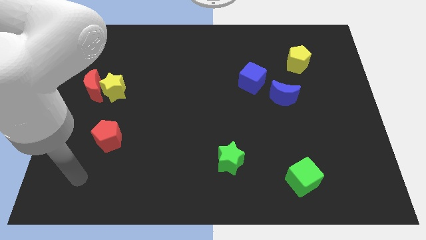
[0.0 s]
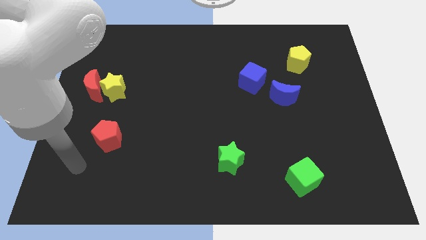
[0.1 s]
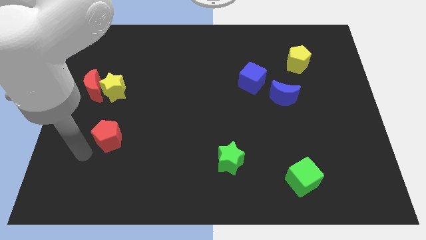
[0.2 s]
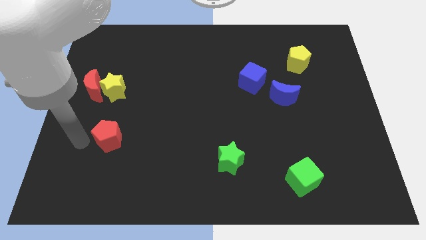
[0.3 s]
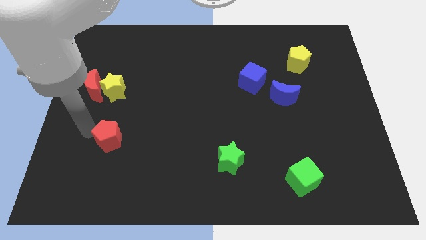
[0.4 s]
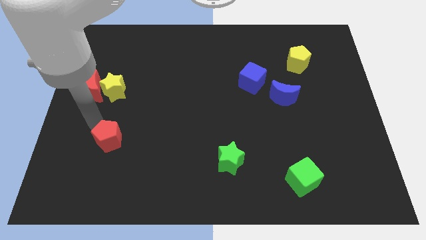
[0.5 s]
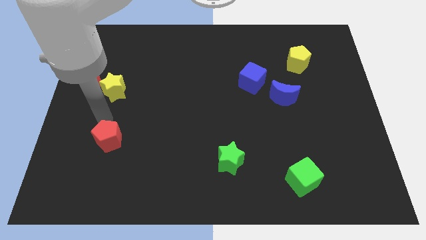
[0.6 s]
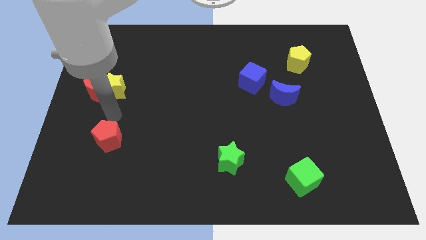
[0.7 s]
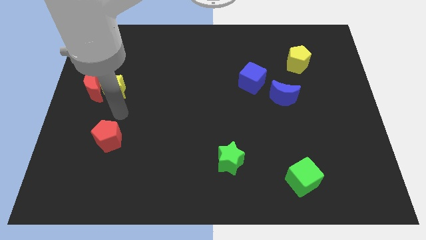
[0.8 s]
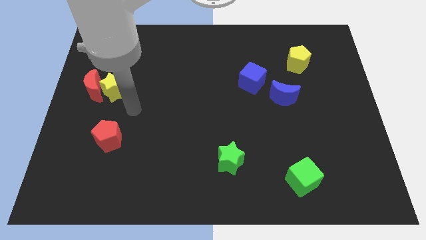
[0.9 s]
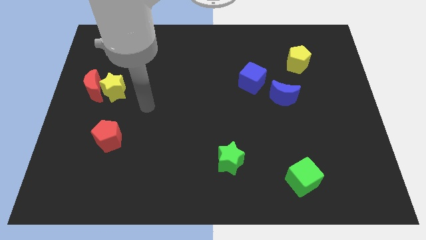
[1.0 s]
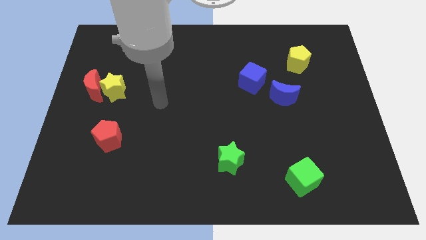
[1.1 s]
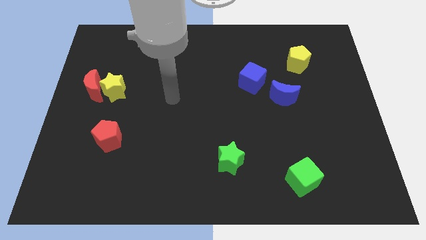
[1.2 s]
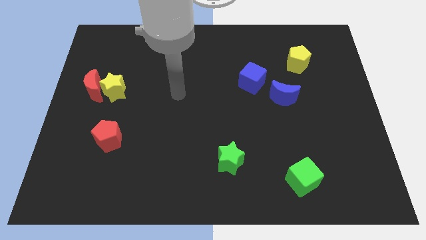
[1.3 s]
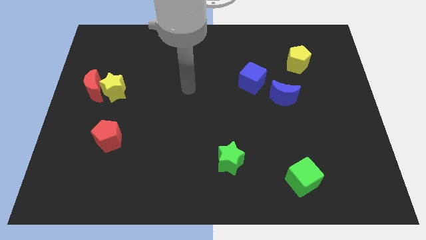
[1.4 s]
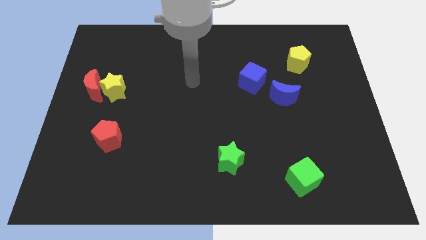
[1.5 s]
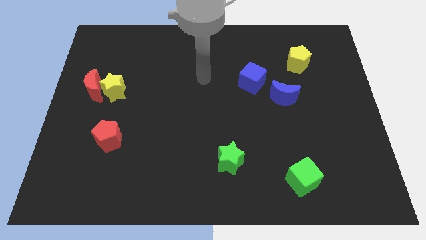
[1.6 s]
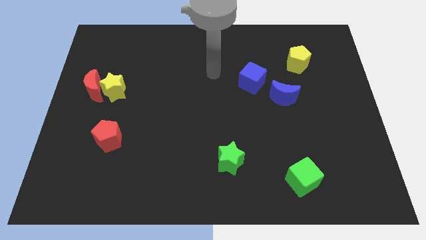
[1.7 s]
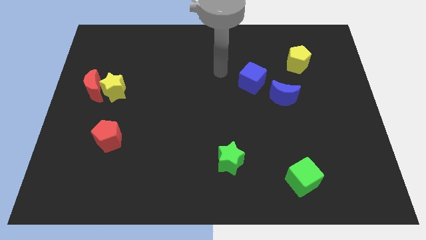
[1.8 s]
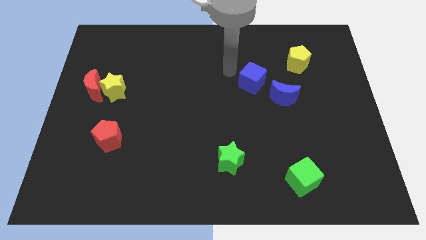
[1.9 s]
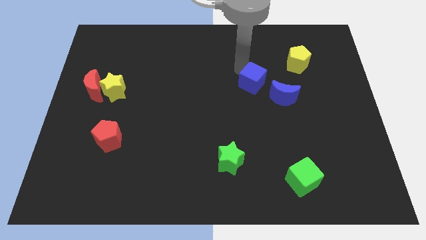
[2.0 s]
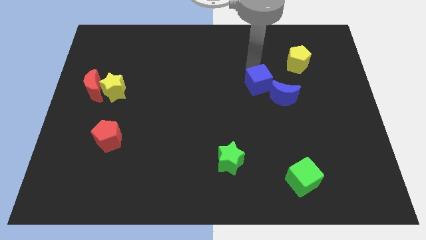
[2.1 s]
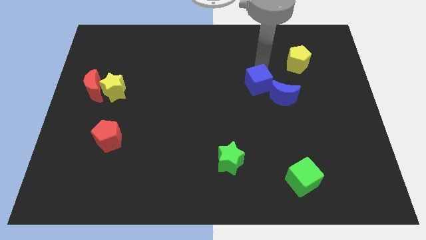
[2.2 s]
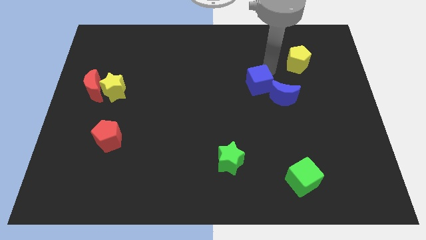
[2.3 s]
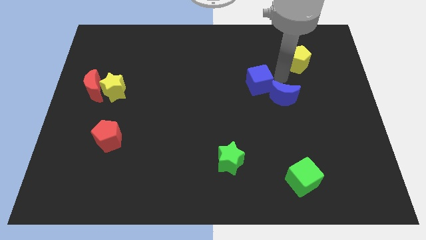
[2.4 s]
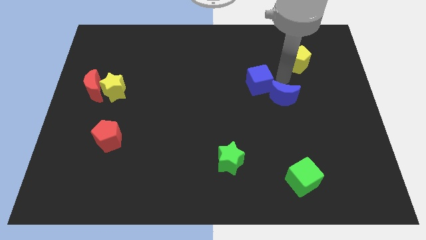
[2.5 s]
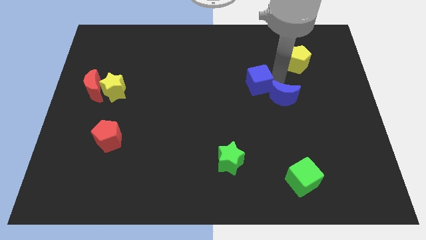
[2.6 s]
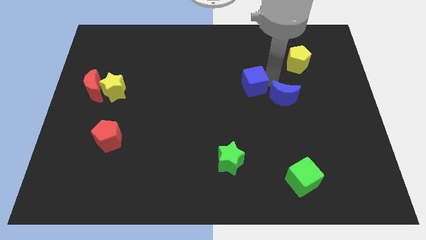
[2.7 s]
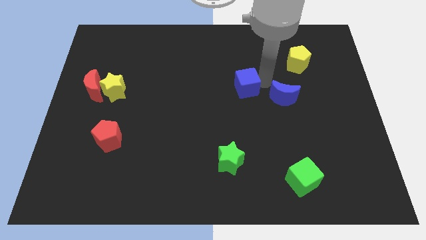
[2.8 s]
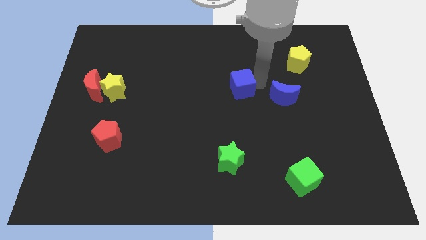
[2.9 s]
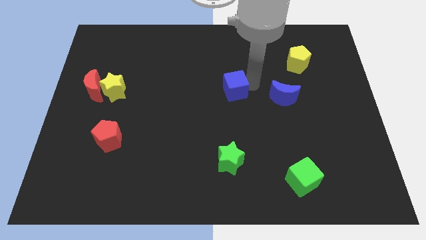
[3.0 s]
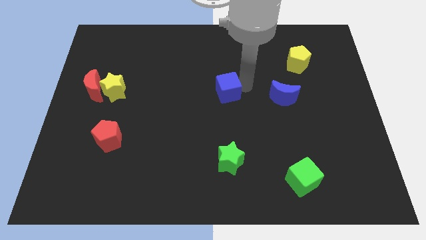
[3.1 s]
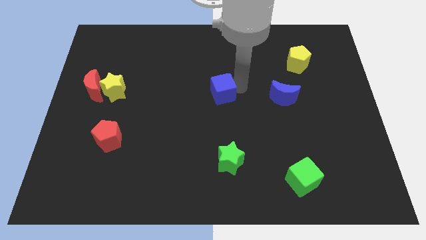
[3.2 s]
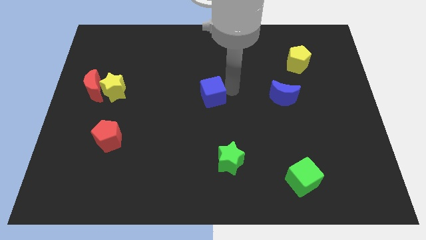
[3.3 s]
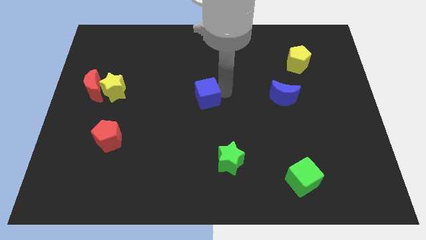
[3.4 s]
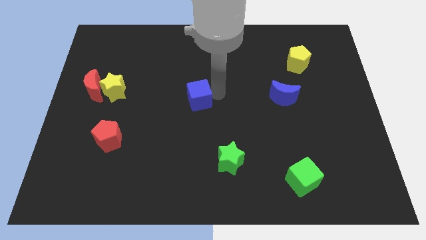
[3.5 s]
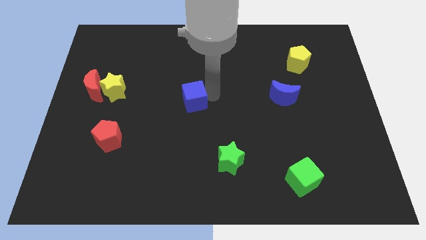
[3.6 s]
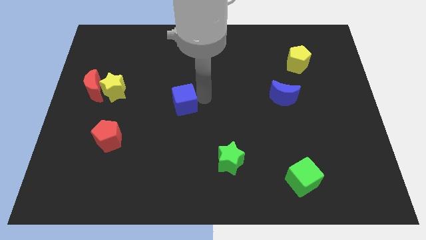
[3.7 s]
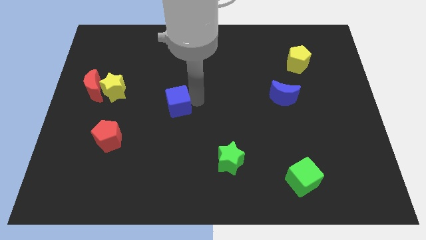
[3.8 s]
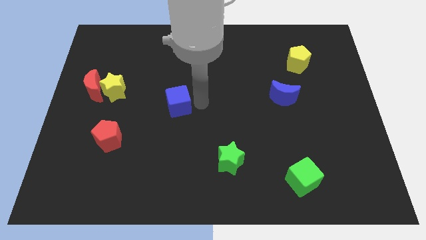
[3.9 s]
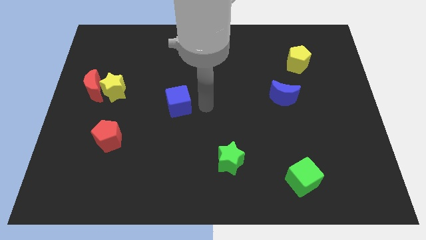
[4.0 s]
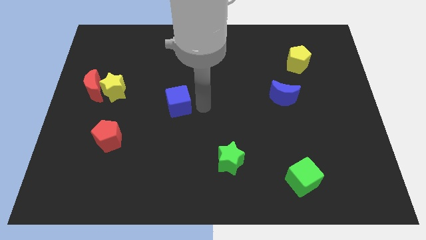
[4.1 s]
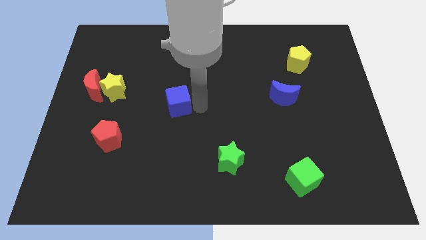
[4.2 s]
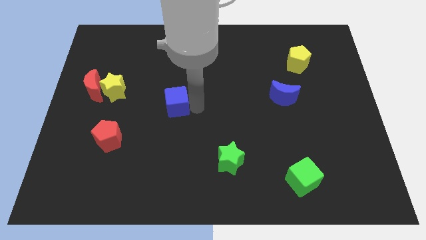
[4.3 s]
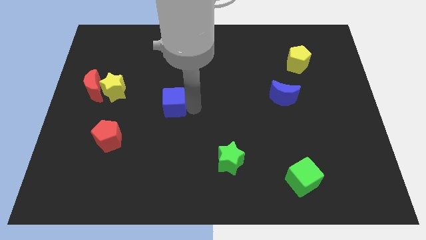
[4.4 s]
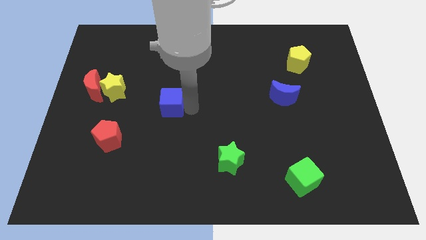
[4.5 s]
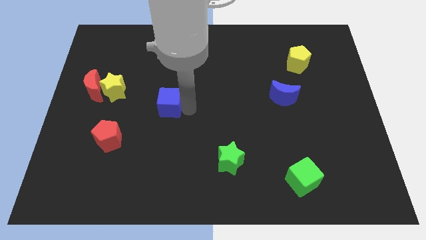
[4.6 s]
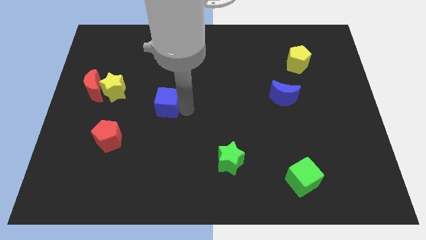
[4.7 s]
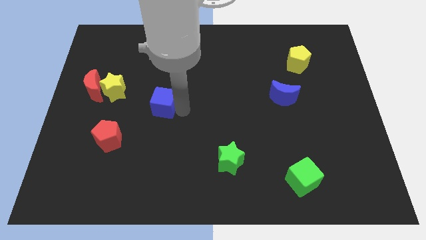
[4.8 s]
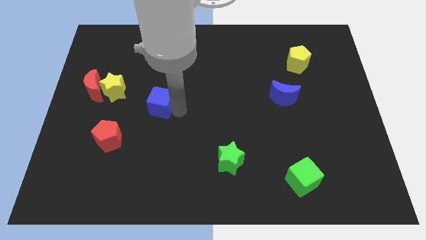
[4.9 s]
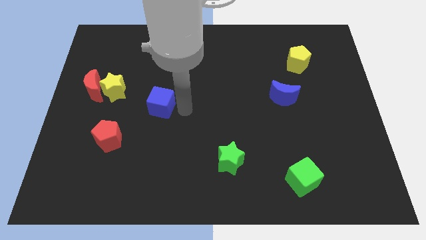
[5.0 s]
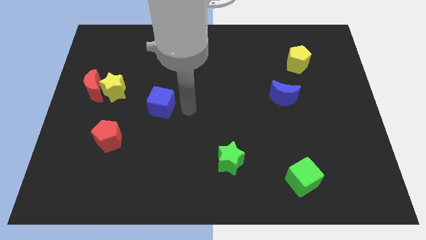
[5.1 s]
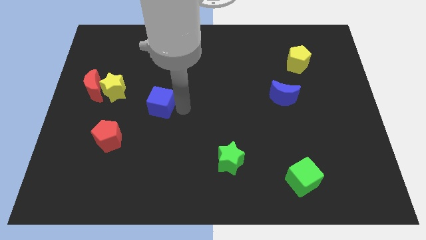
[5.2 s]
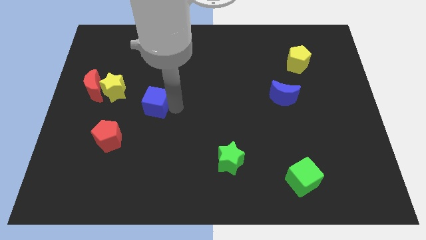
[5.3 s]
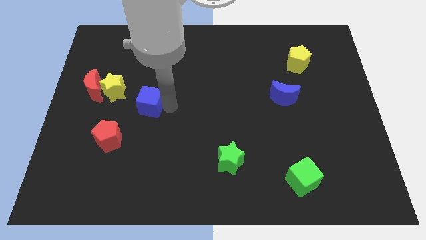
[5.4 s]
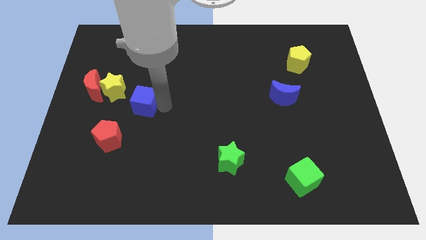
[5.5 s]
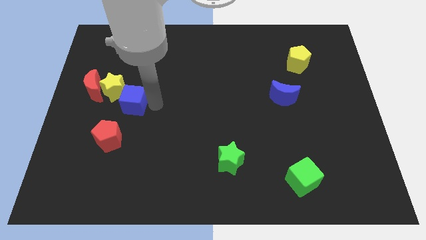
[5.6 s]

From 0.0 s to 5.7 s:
move the blue cube diagonally down and to the right of the red moon

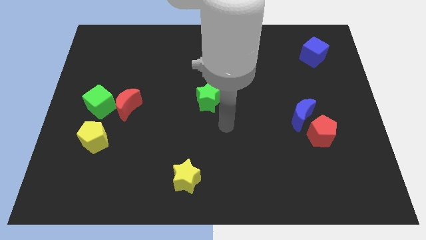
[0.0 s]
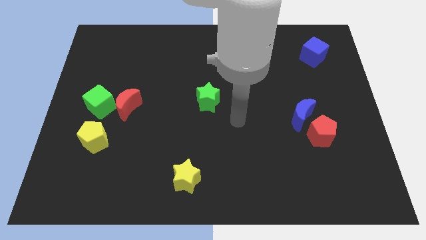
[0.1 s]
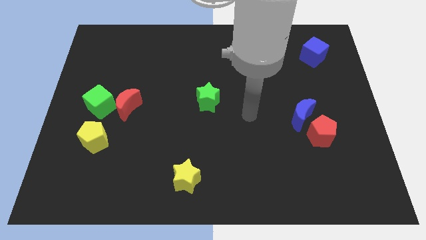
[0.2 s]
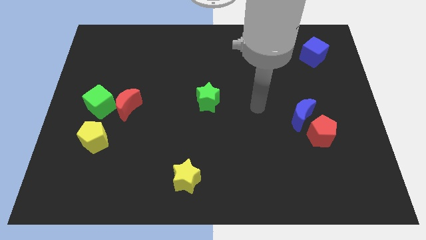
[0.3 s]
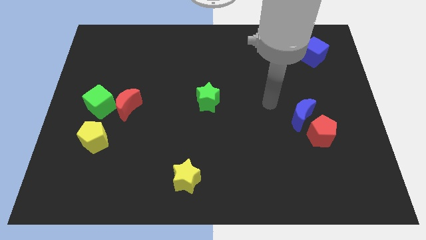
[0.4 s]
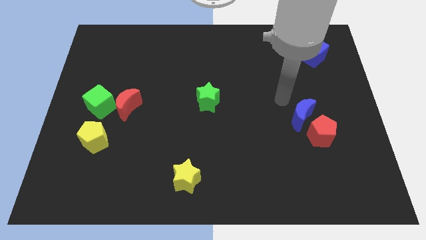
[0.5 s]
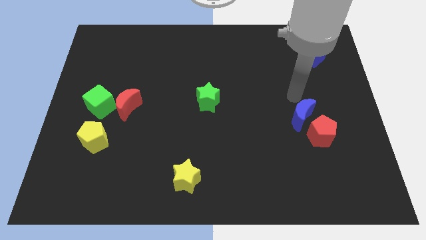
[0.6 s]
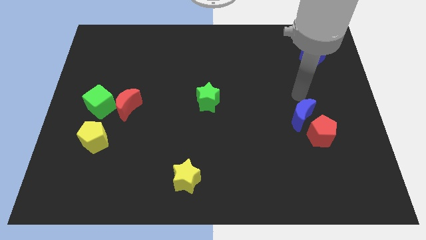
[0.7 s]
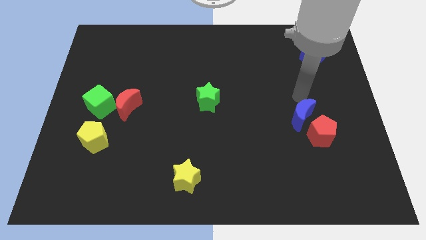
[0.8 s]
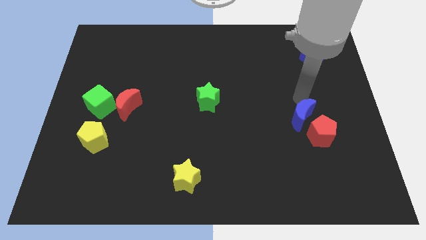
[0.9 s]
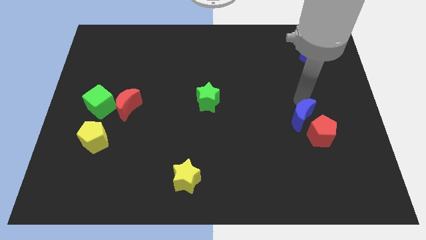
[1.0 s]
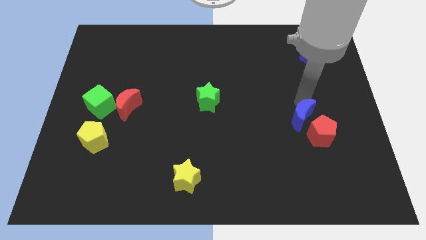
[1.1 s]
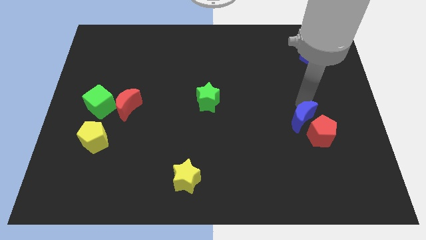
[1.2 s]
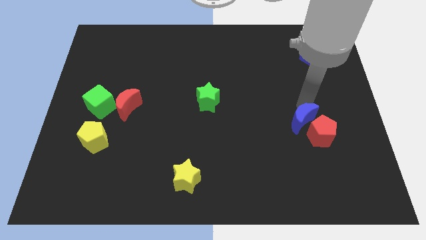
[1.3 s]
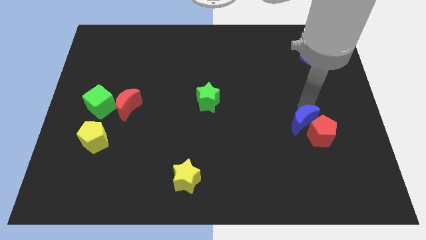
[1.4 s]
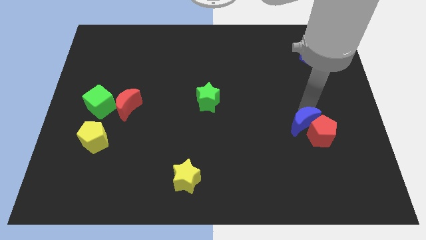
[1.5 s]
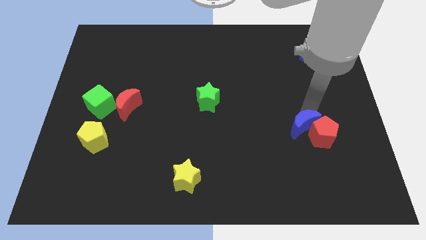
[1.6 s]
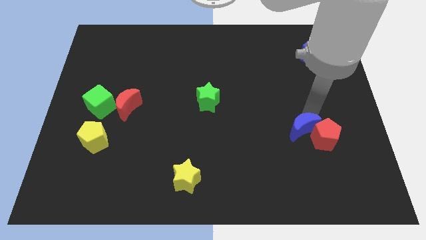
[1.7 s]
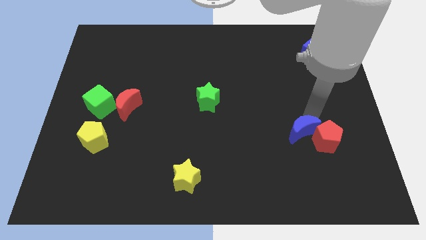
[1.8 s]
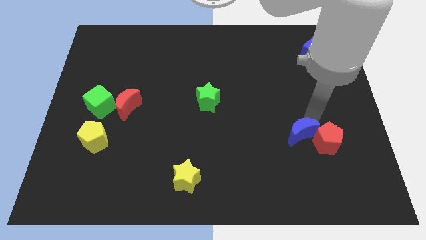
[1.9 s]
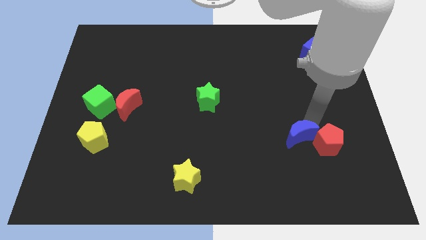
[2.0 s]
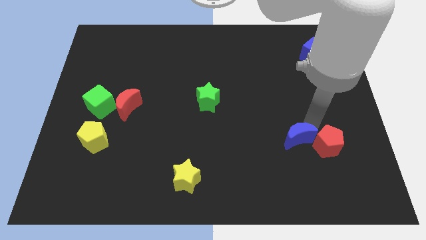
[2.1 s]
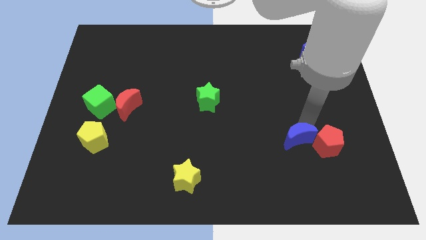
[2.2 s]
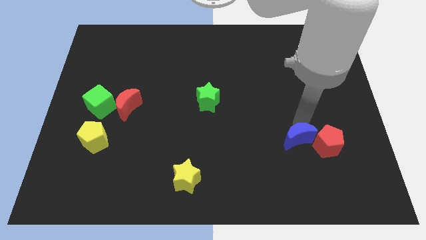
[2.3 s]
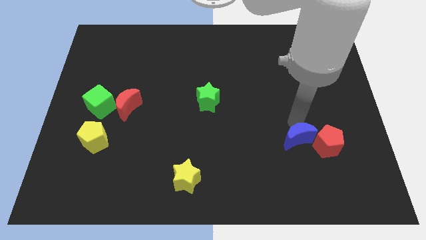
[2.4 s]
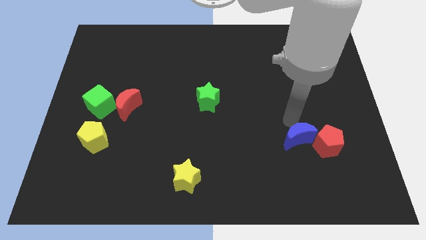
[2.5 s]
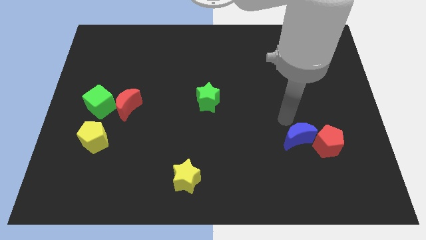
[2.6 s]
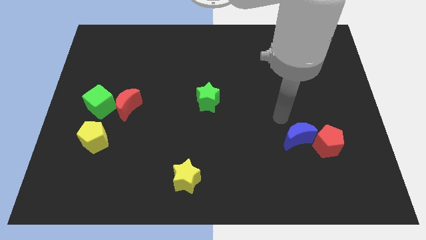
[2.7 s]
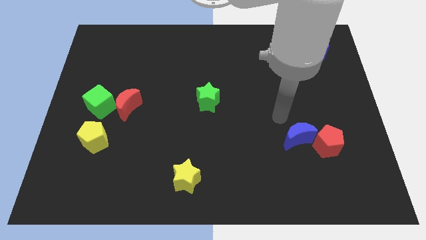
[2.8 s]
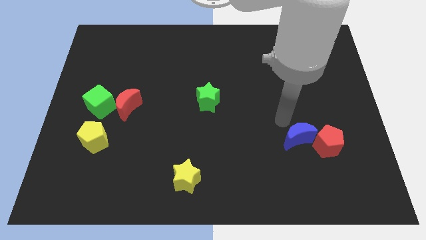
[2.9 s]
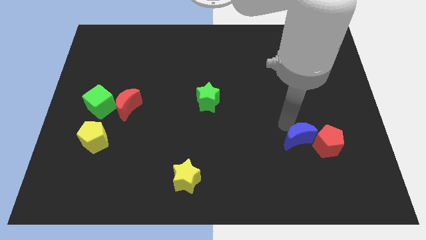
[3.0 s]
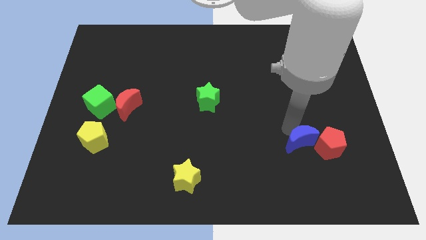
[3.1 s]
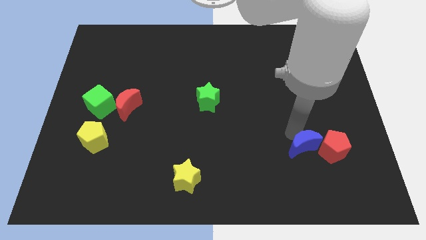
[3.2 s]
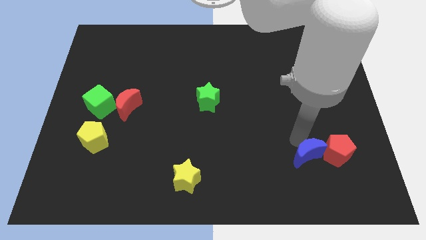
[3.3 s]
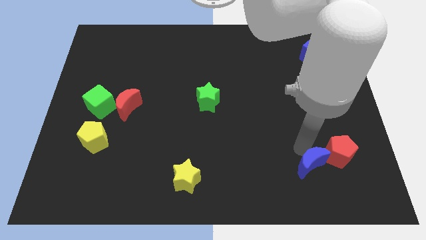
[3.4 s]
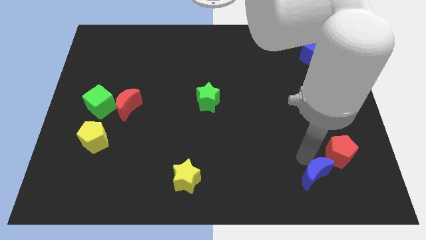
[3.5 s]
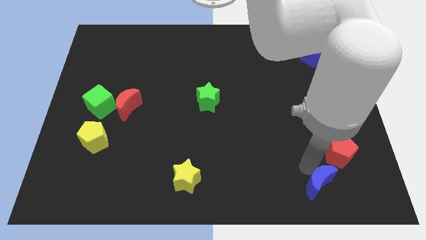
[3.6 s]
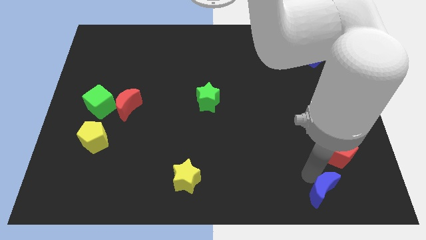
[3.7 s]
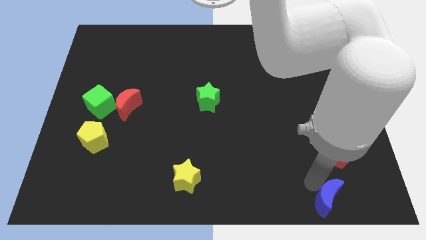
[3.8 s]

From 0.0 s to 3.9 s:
put the blue moon below the red pentagon
